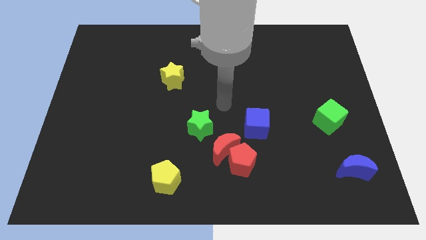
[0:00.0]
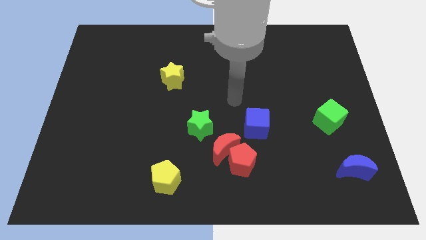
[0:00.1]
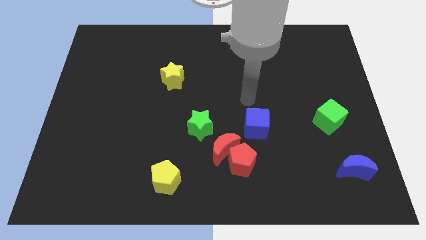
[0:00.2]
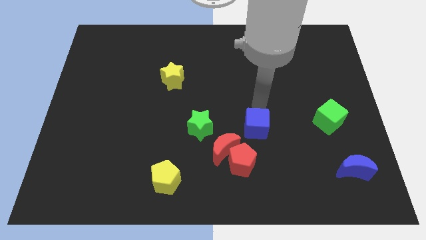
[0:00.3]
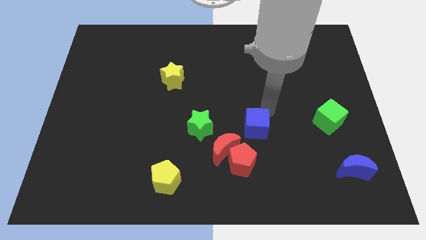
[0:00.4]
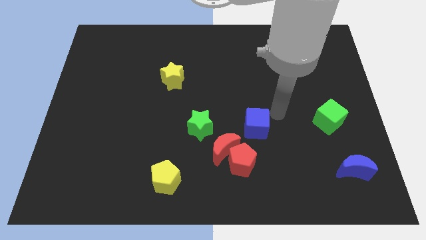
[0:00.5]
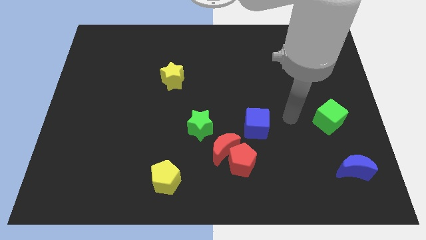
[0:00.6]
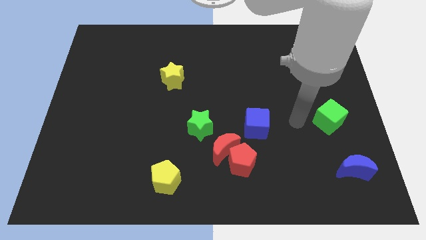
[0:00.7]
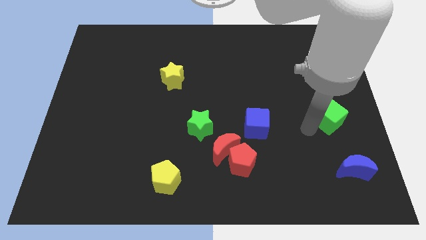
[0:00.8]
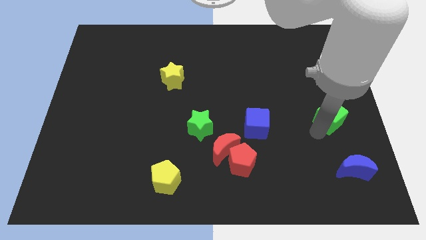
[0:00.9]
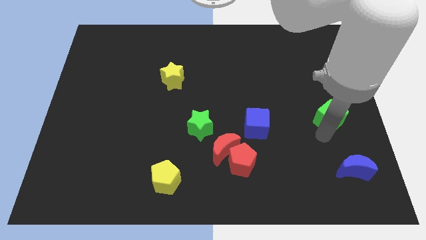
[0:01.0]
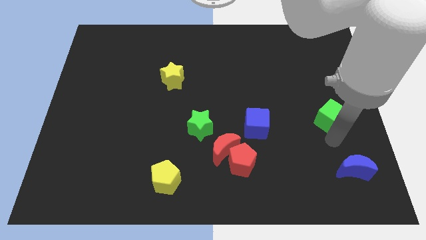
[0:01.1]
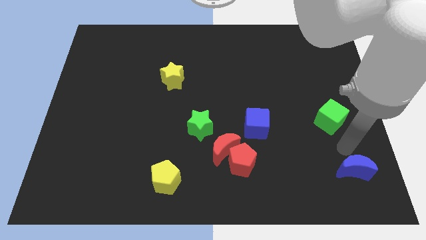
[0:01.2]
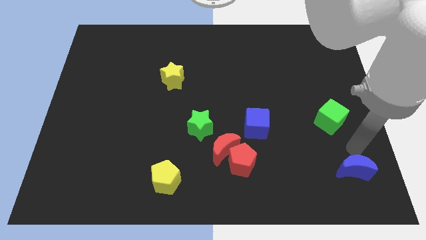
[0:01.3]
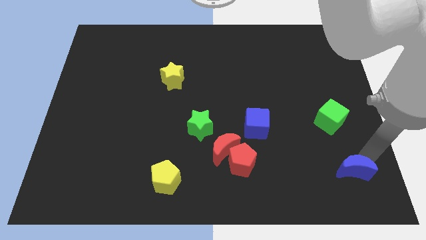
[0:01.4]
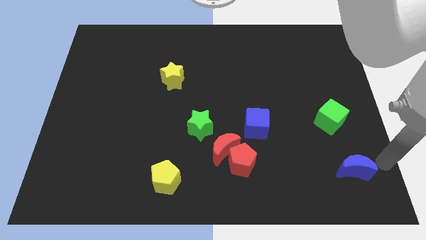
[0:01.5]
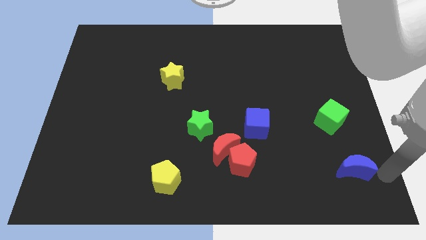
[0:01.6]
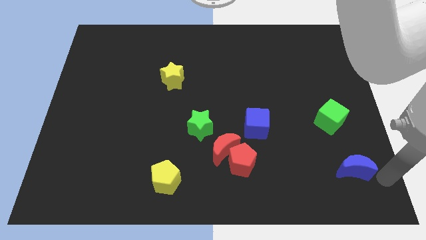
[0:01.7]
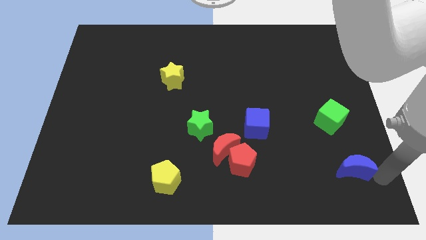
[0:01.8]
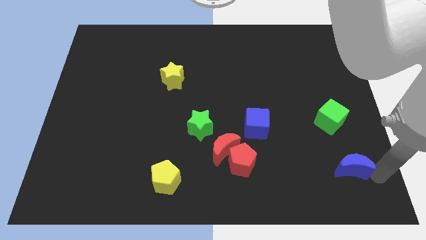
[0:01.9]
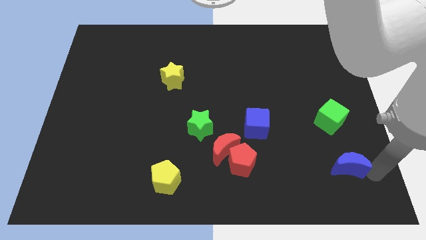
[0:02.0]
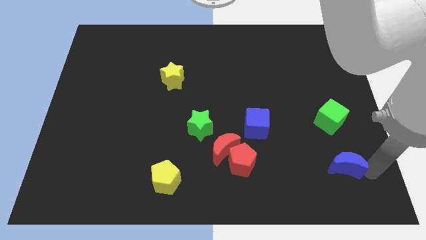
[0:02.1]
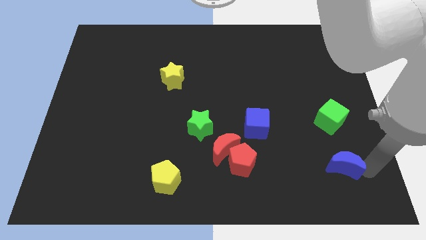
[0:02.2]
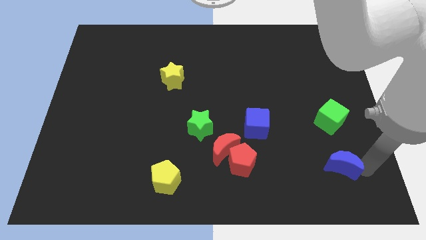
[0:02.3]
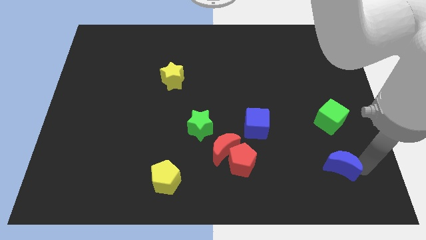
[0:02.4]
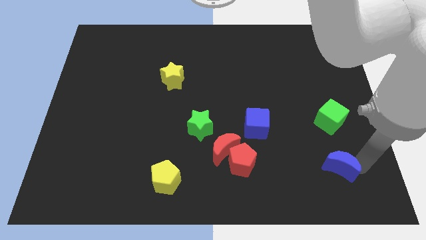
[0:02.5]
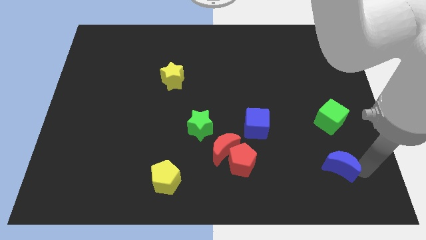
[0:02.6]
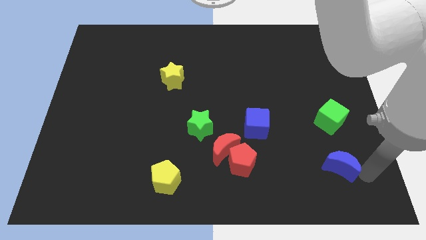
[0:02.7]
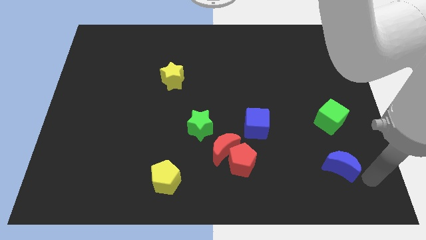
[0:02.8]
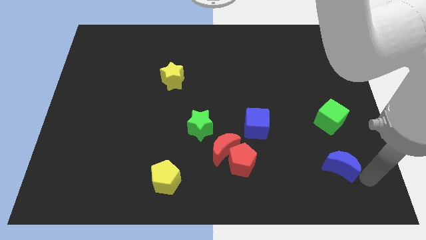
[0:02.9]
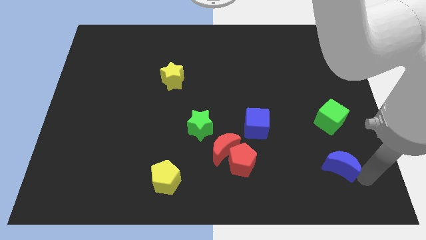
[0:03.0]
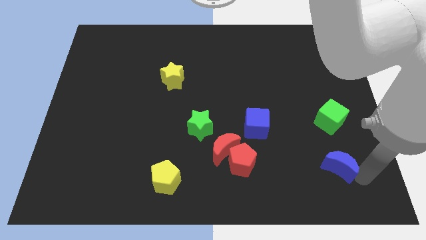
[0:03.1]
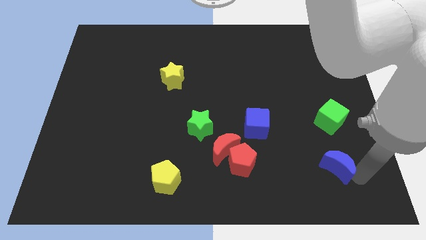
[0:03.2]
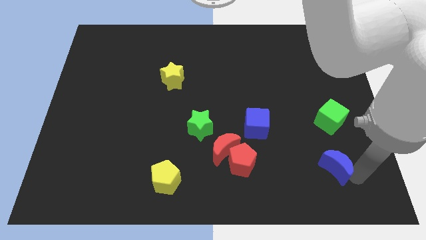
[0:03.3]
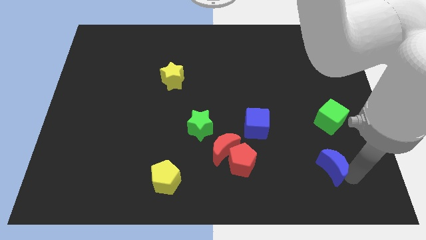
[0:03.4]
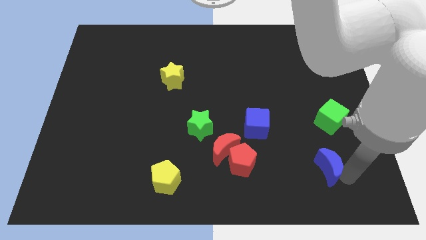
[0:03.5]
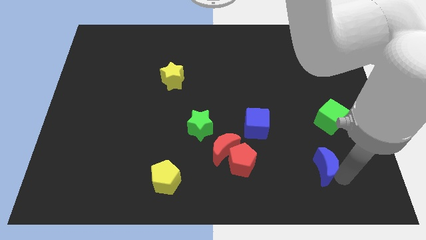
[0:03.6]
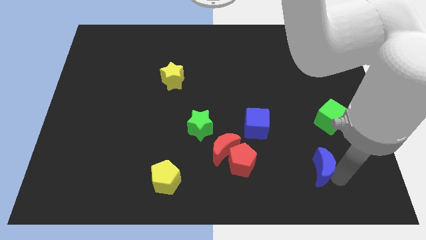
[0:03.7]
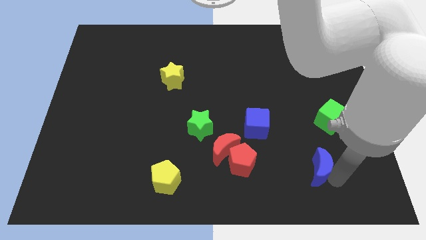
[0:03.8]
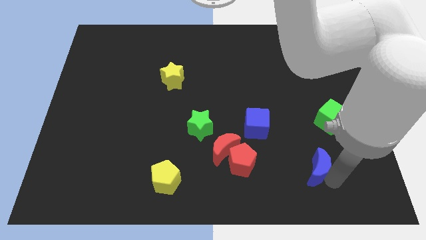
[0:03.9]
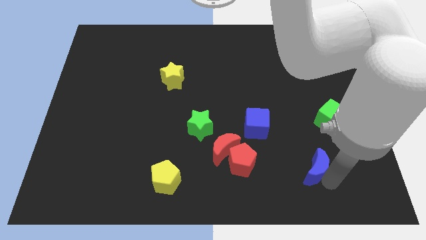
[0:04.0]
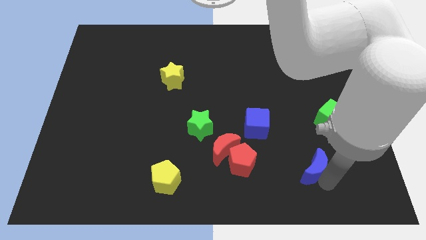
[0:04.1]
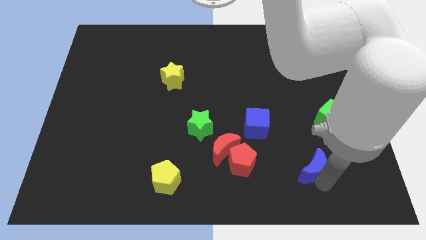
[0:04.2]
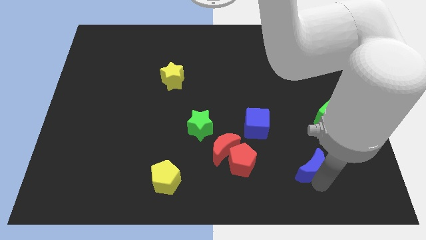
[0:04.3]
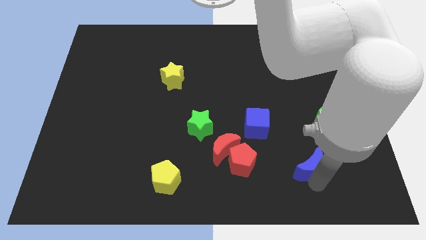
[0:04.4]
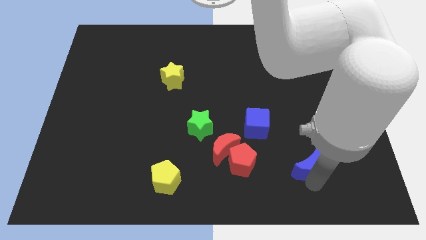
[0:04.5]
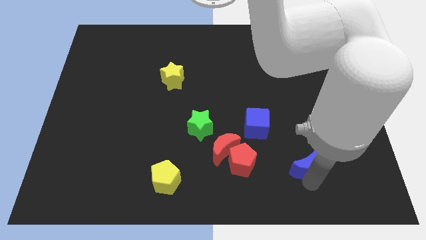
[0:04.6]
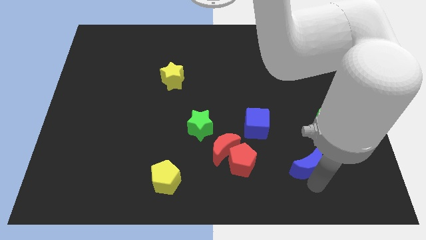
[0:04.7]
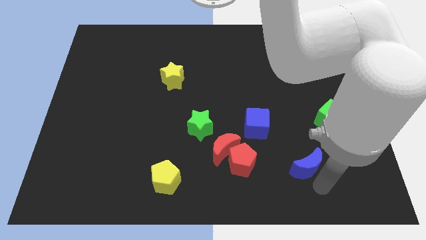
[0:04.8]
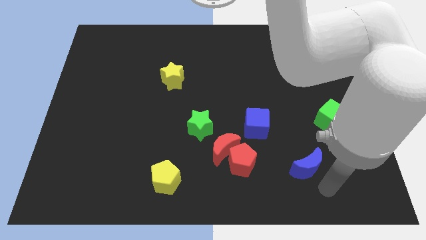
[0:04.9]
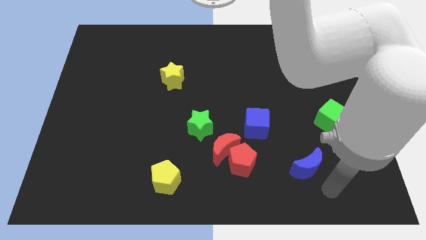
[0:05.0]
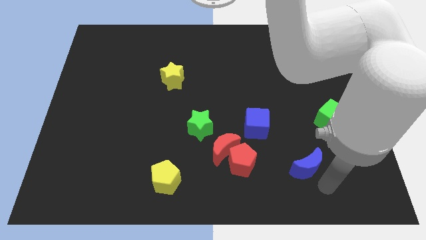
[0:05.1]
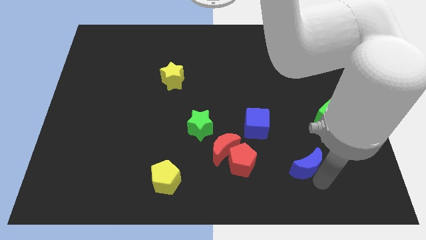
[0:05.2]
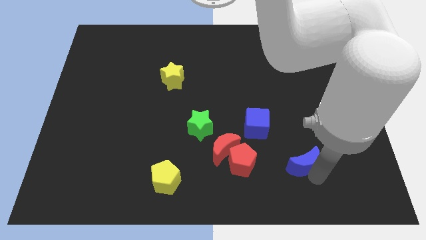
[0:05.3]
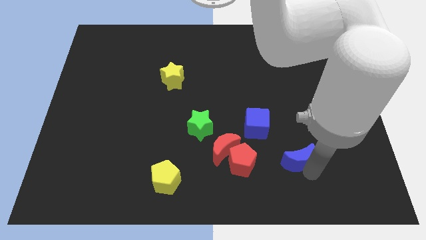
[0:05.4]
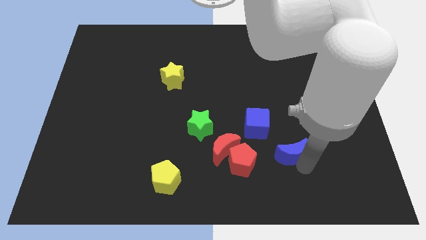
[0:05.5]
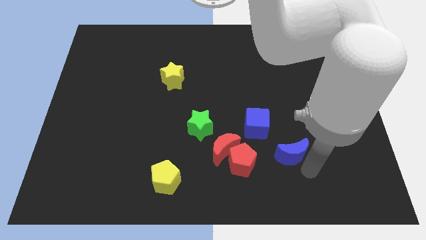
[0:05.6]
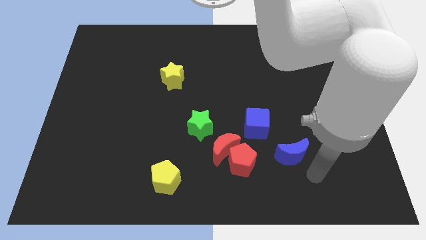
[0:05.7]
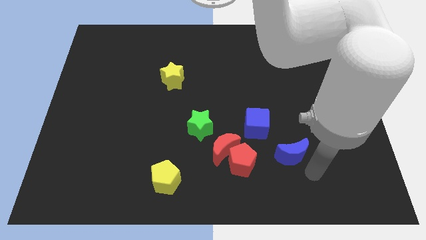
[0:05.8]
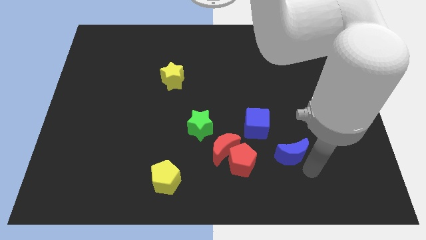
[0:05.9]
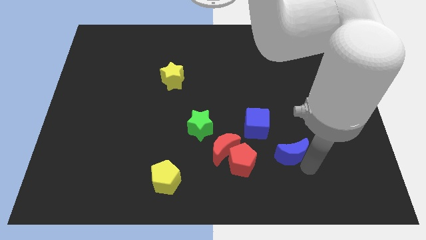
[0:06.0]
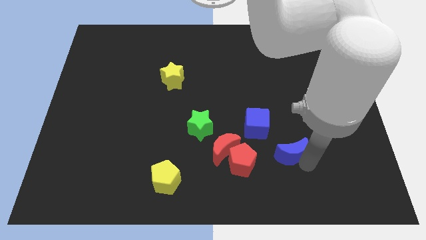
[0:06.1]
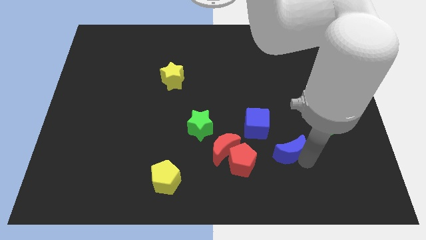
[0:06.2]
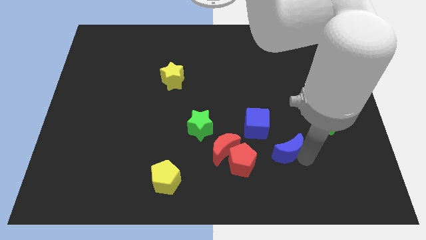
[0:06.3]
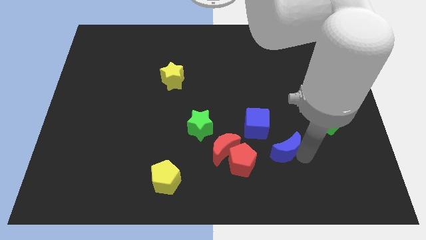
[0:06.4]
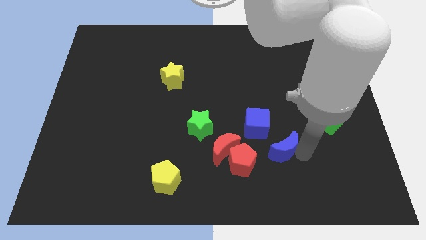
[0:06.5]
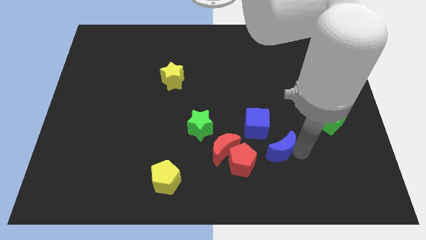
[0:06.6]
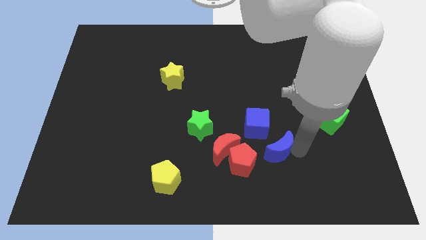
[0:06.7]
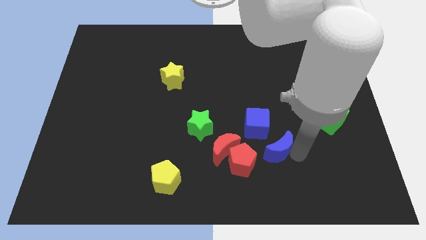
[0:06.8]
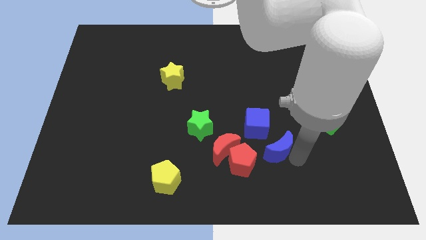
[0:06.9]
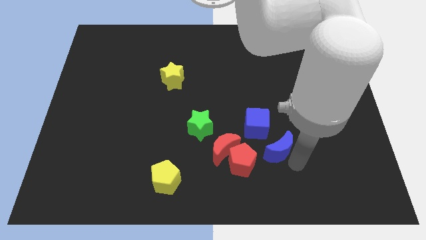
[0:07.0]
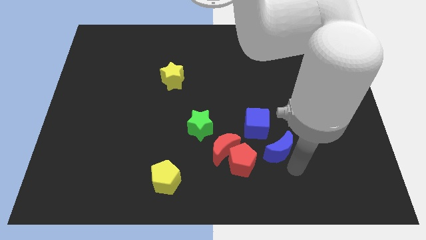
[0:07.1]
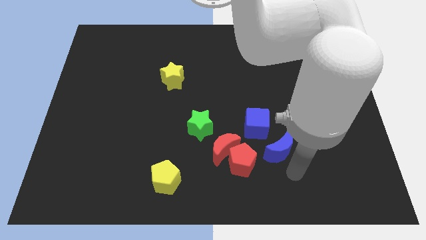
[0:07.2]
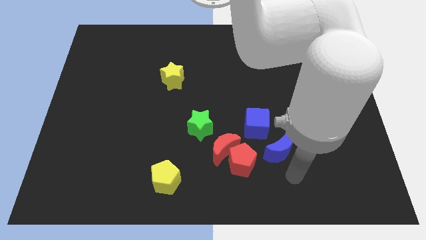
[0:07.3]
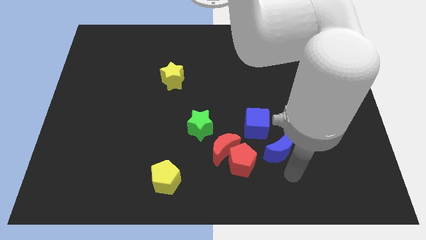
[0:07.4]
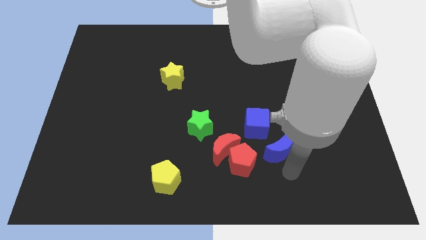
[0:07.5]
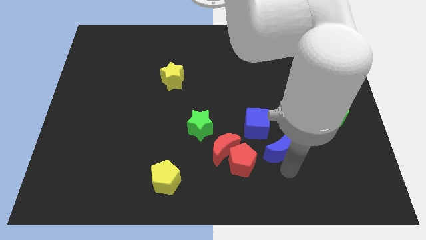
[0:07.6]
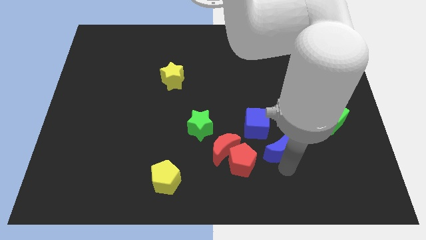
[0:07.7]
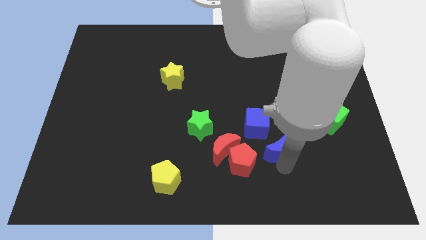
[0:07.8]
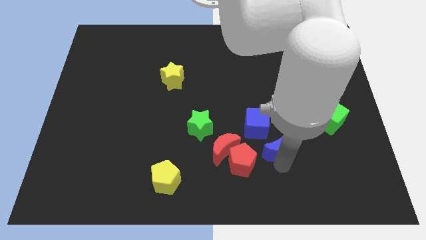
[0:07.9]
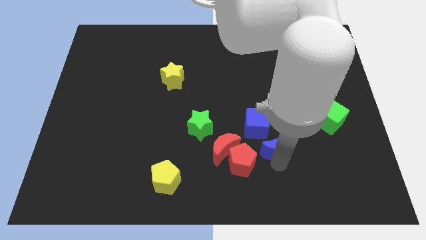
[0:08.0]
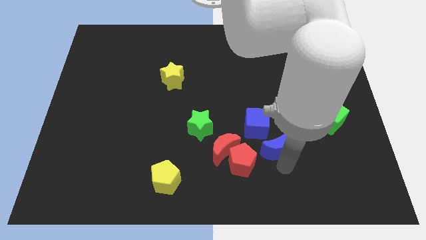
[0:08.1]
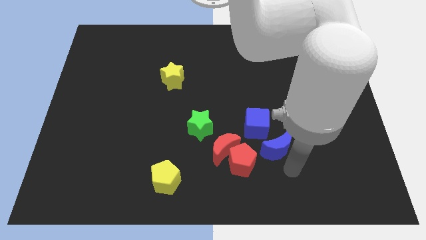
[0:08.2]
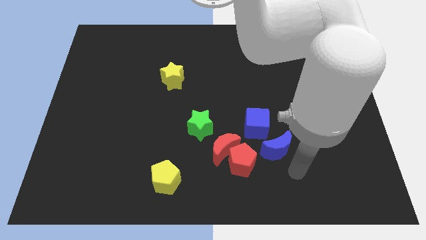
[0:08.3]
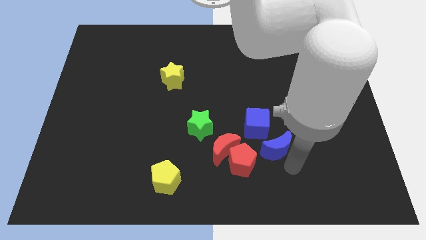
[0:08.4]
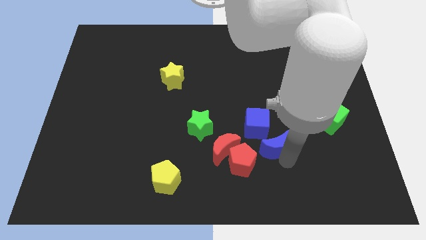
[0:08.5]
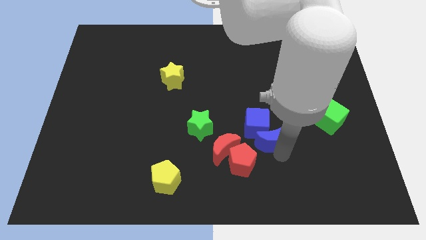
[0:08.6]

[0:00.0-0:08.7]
put the blue moon next to the blue cube
